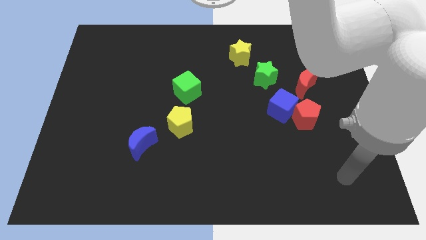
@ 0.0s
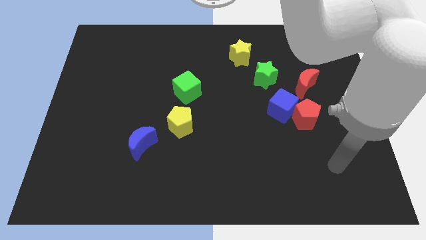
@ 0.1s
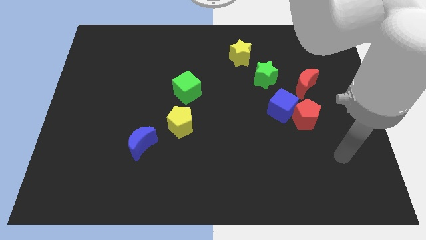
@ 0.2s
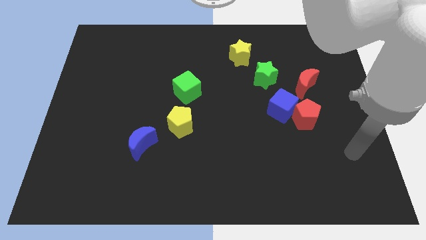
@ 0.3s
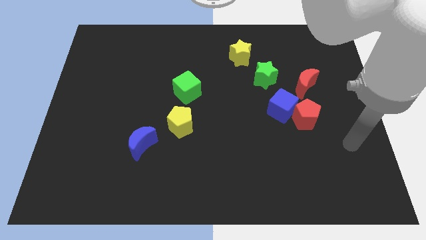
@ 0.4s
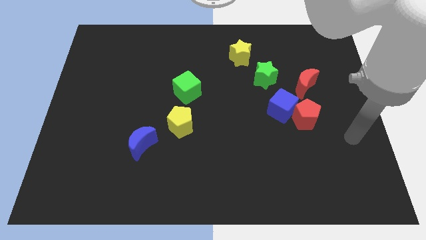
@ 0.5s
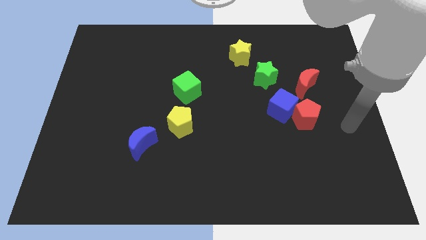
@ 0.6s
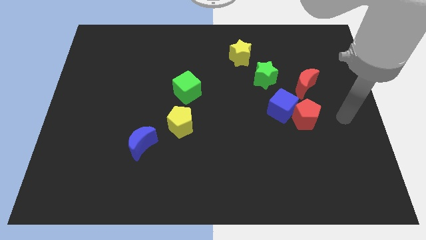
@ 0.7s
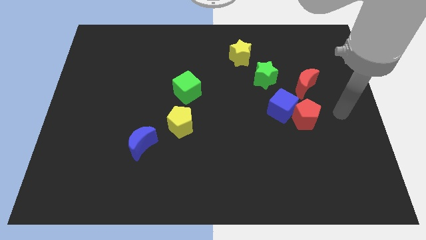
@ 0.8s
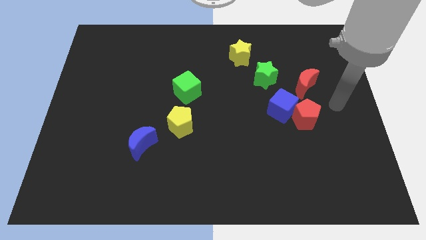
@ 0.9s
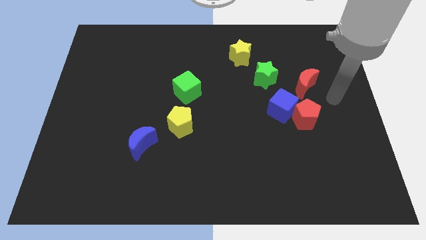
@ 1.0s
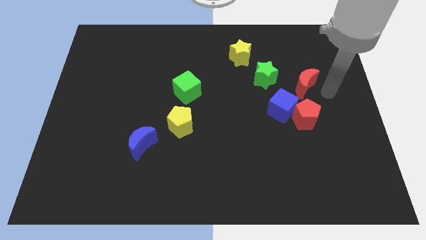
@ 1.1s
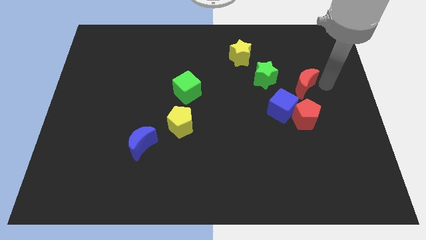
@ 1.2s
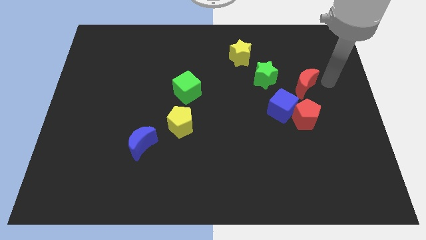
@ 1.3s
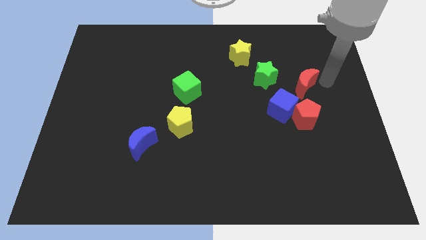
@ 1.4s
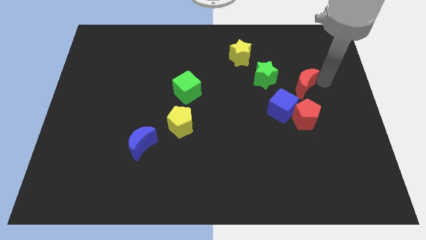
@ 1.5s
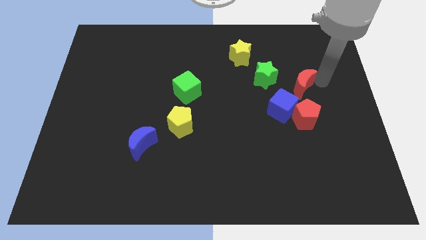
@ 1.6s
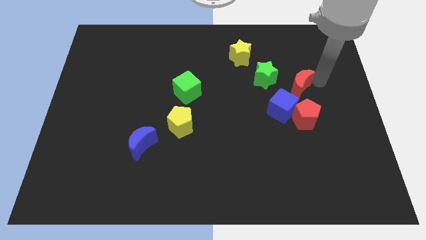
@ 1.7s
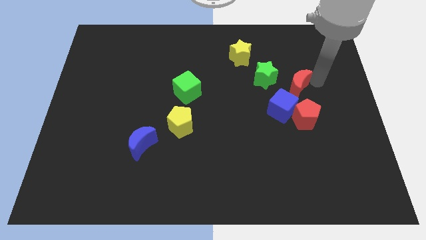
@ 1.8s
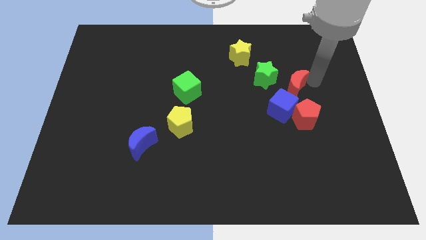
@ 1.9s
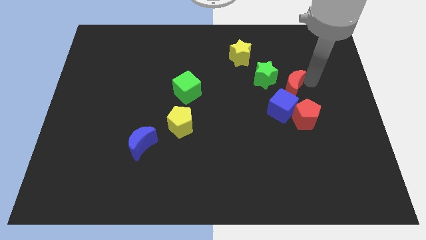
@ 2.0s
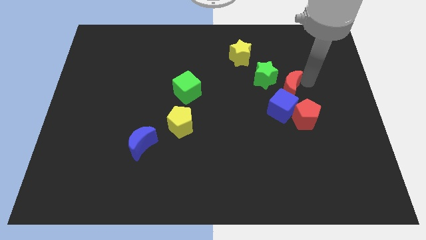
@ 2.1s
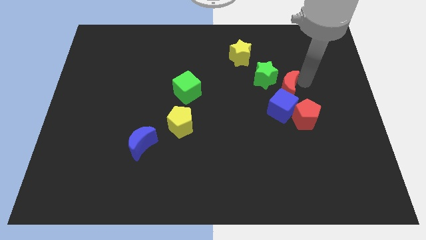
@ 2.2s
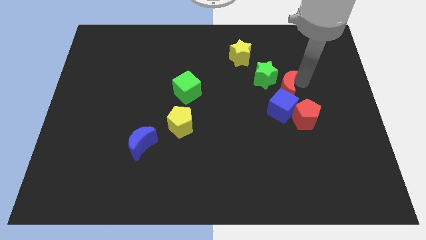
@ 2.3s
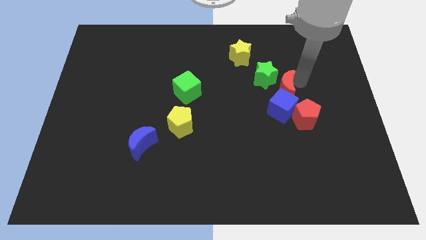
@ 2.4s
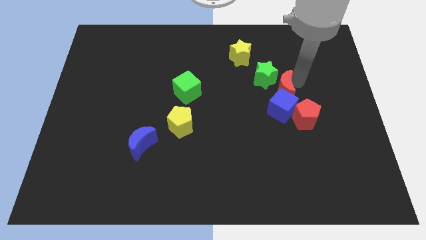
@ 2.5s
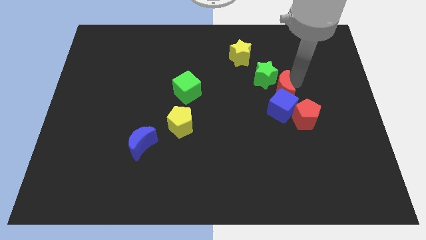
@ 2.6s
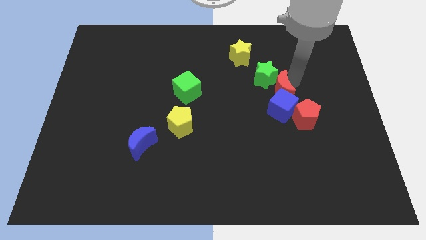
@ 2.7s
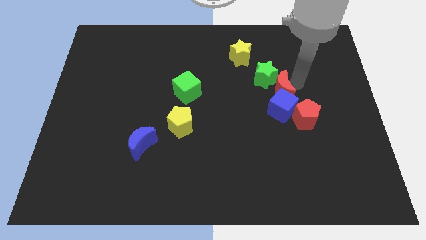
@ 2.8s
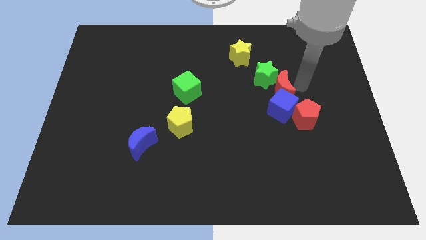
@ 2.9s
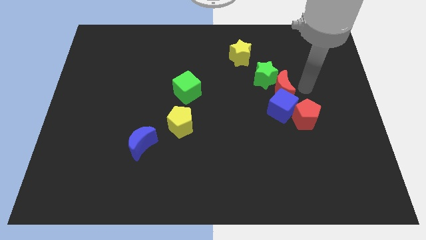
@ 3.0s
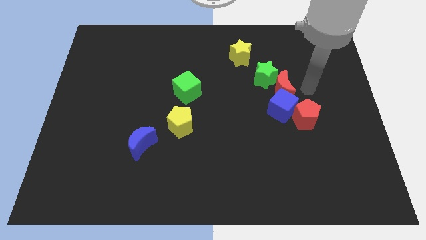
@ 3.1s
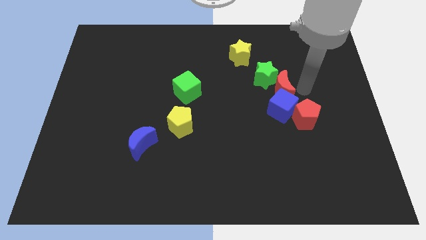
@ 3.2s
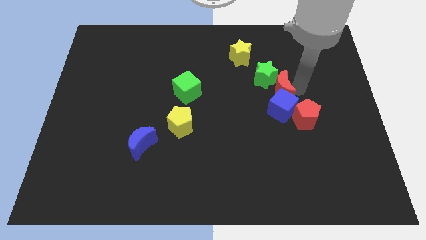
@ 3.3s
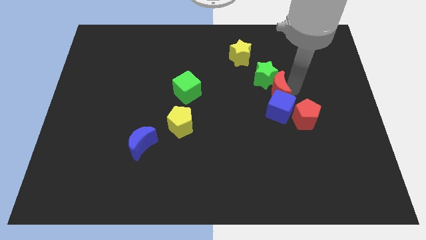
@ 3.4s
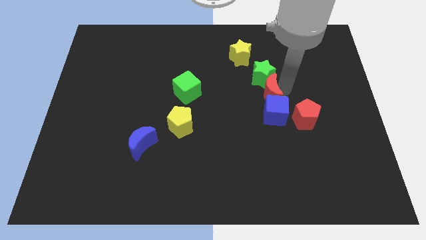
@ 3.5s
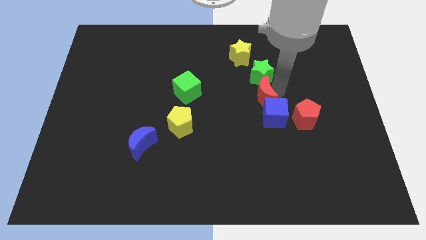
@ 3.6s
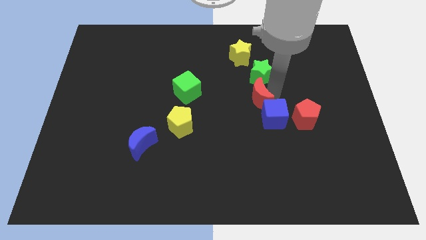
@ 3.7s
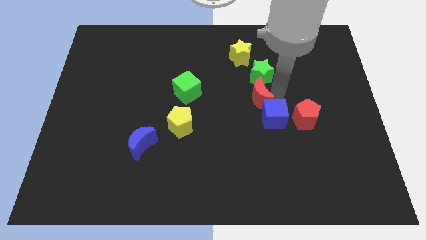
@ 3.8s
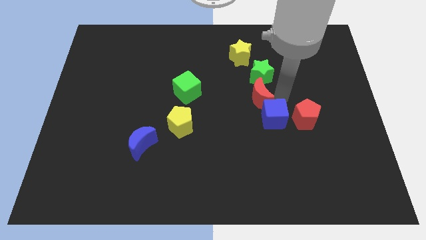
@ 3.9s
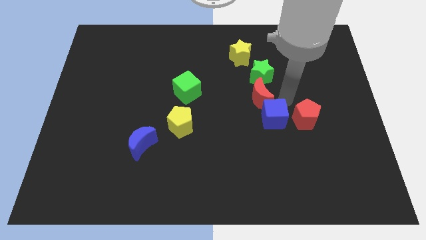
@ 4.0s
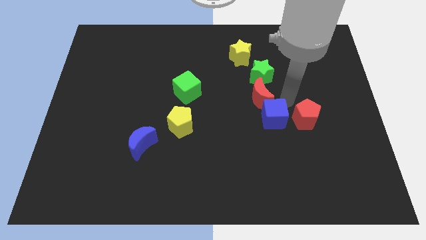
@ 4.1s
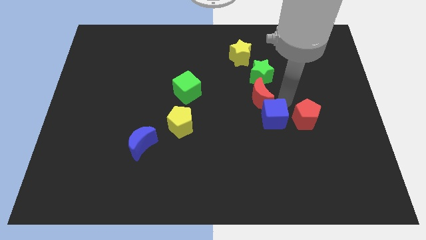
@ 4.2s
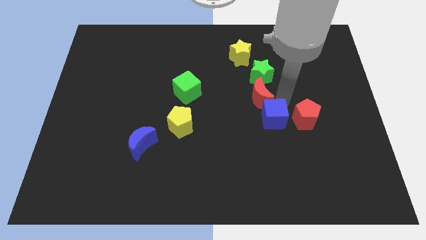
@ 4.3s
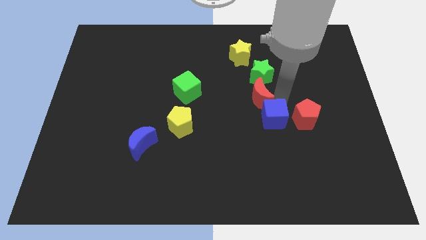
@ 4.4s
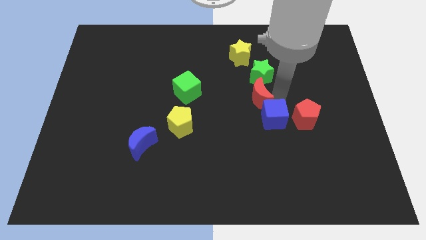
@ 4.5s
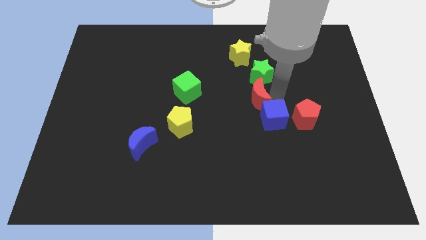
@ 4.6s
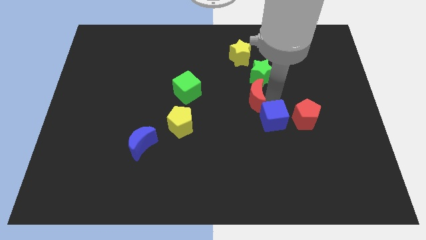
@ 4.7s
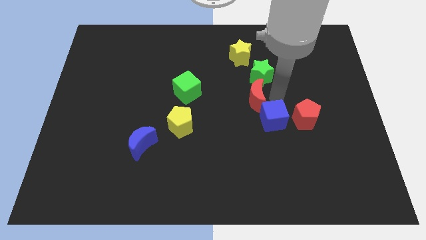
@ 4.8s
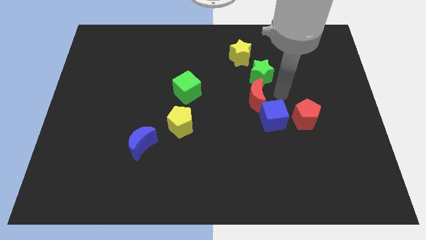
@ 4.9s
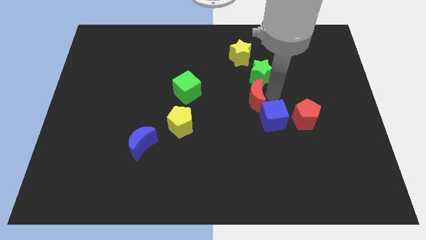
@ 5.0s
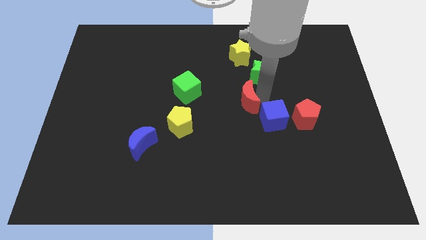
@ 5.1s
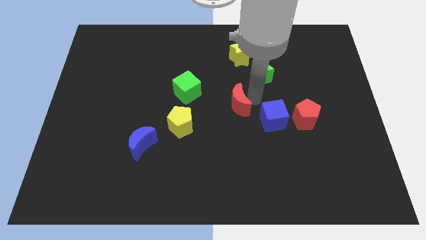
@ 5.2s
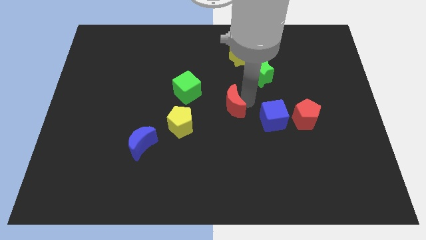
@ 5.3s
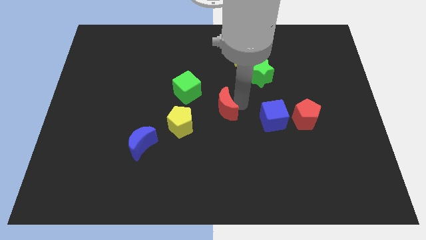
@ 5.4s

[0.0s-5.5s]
put the red moon diagonally down and to the right of the green cube

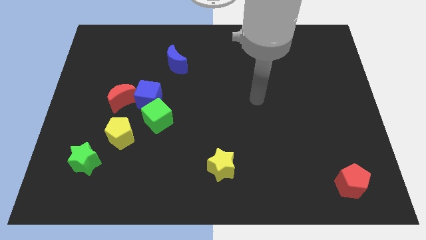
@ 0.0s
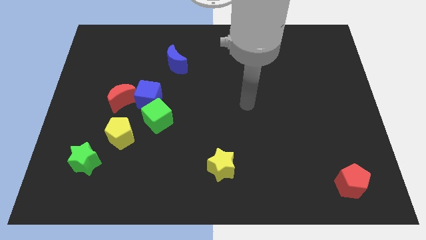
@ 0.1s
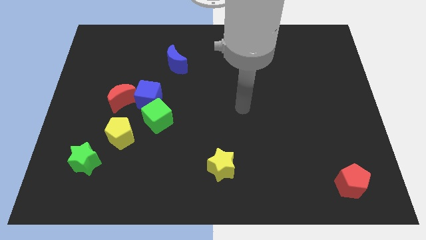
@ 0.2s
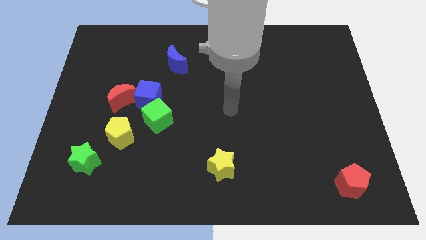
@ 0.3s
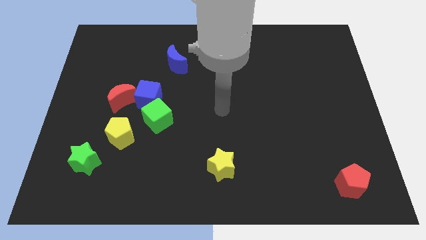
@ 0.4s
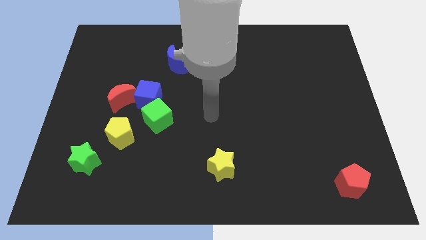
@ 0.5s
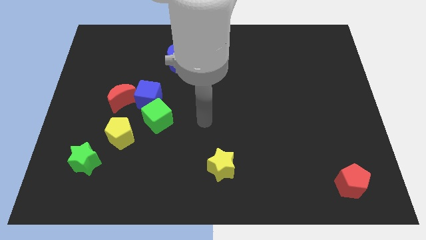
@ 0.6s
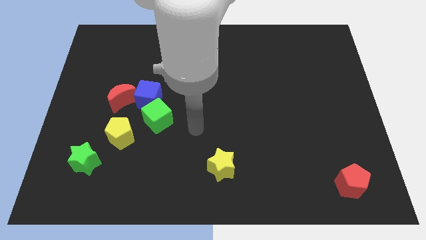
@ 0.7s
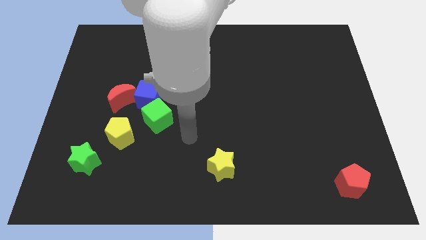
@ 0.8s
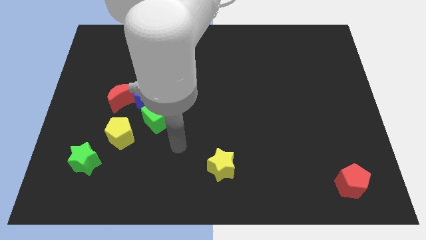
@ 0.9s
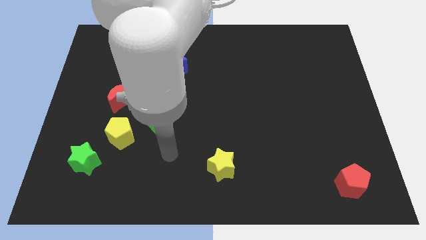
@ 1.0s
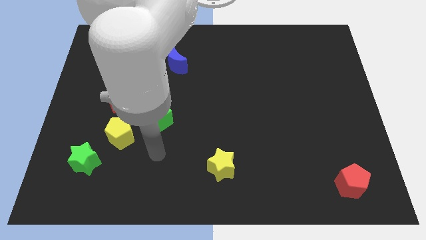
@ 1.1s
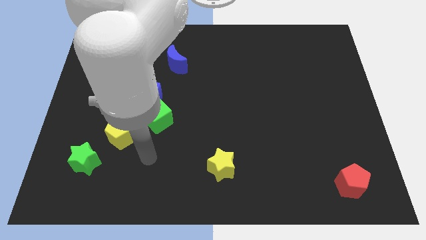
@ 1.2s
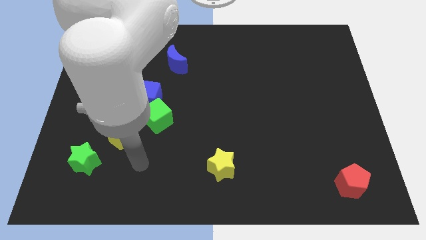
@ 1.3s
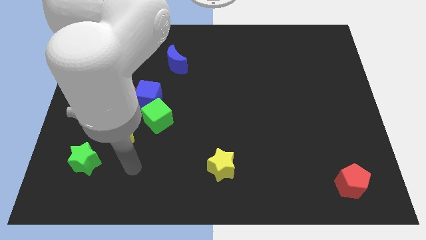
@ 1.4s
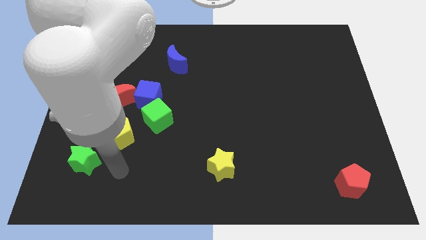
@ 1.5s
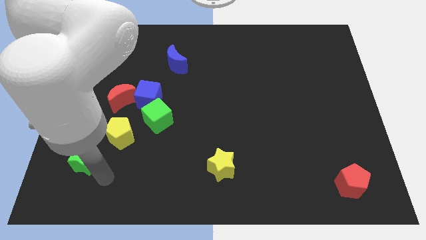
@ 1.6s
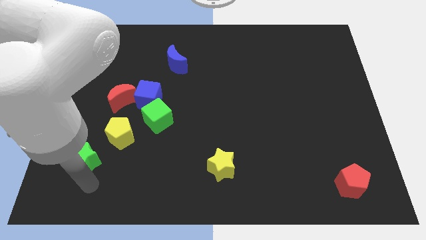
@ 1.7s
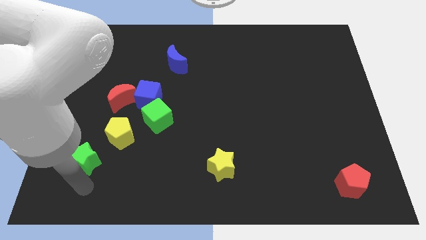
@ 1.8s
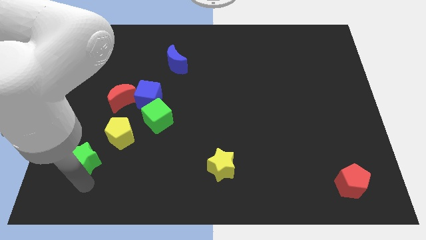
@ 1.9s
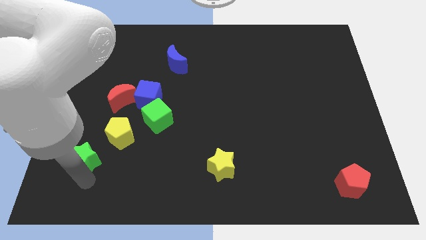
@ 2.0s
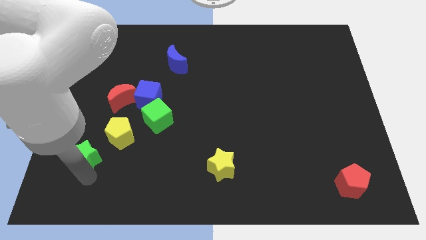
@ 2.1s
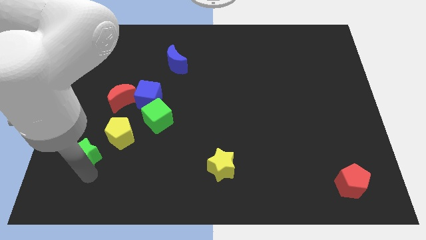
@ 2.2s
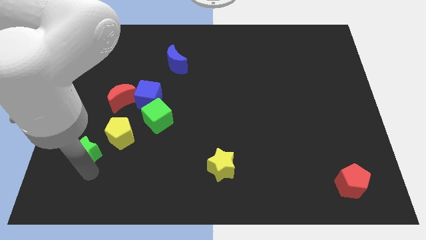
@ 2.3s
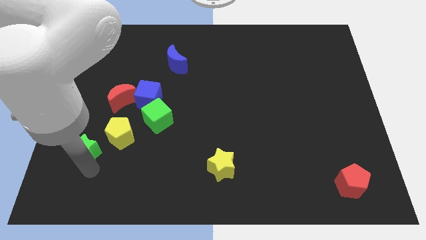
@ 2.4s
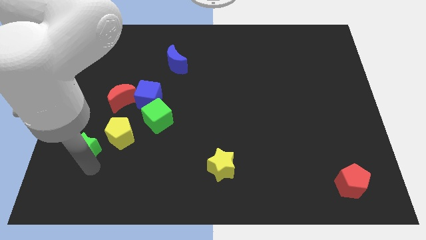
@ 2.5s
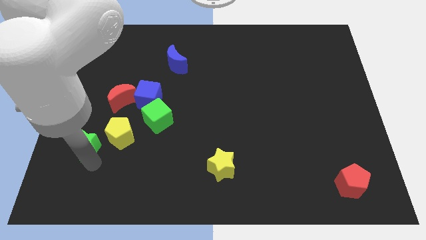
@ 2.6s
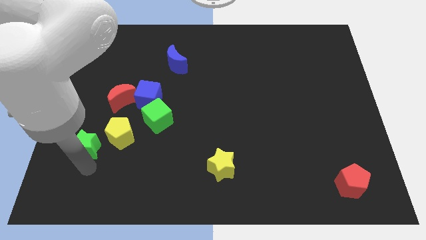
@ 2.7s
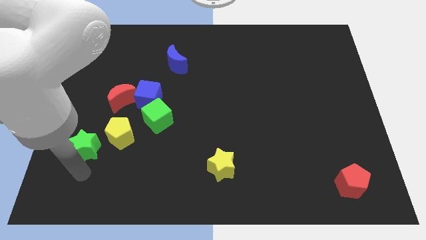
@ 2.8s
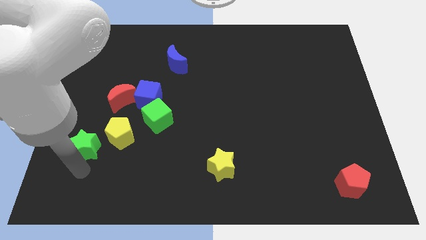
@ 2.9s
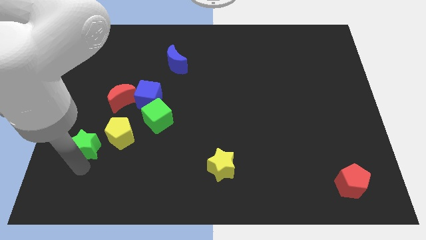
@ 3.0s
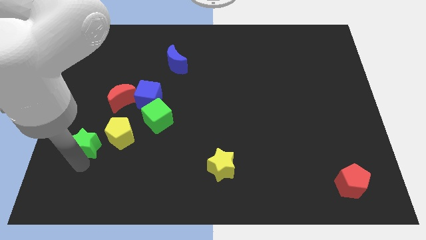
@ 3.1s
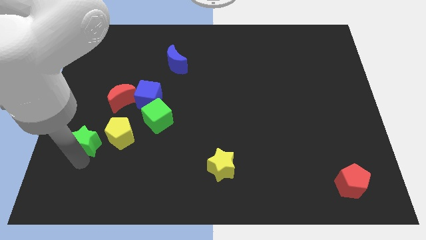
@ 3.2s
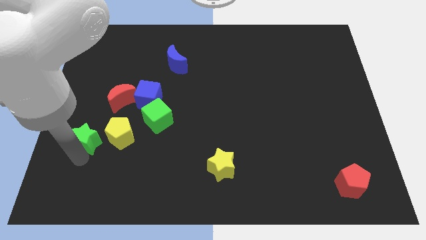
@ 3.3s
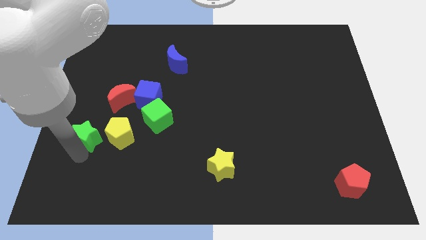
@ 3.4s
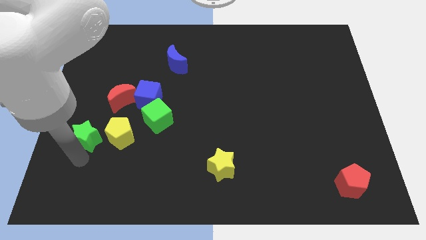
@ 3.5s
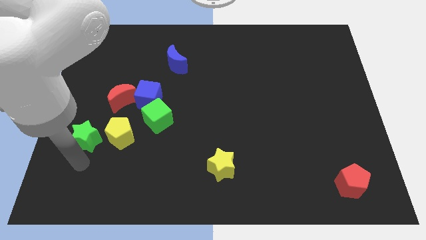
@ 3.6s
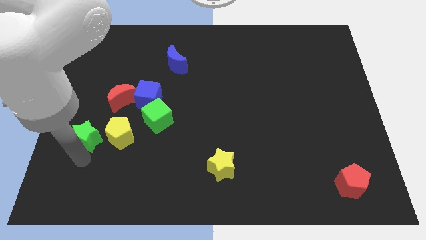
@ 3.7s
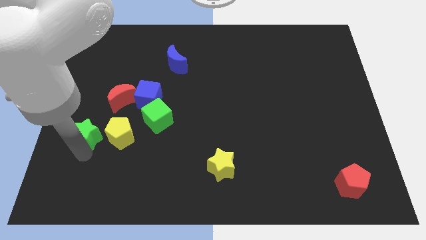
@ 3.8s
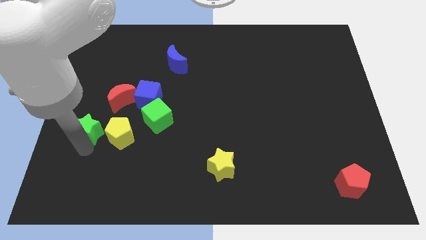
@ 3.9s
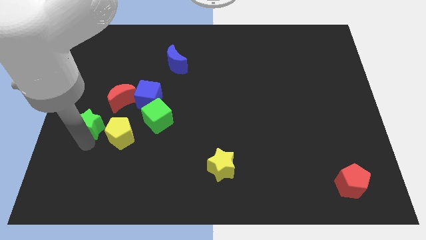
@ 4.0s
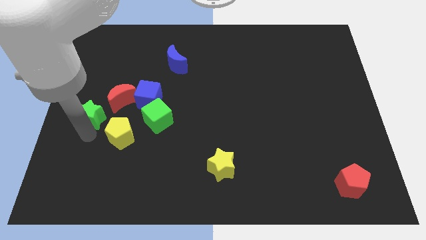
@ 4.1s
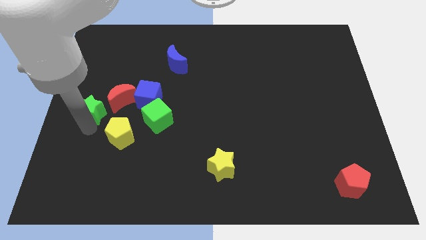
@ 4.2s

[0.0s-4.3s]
slide the green star to the left side of the blue cube
